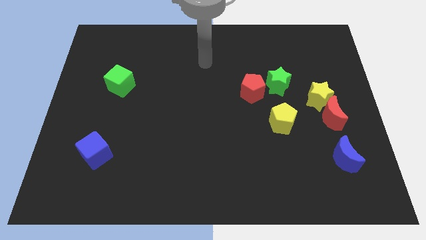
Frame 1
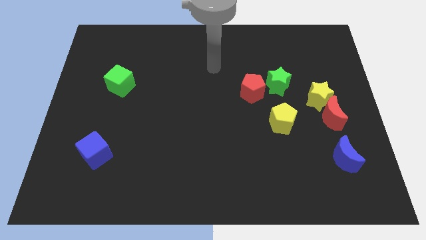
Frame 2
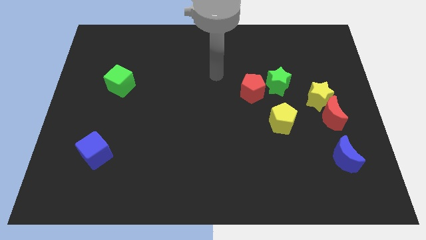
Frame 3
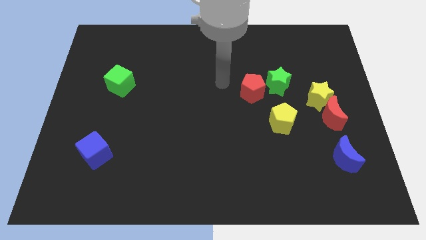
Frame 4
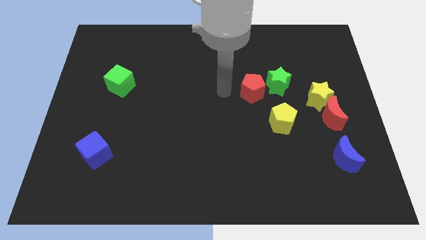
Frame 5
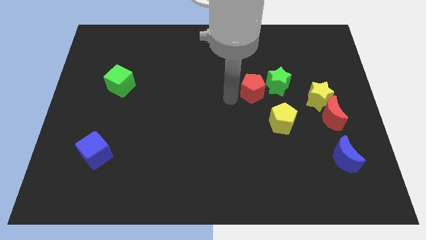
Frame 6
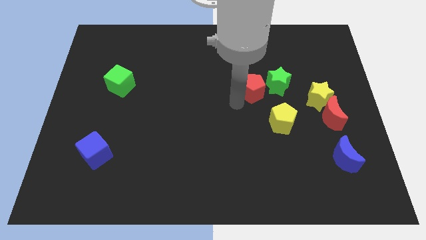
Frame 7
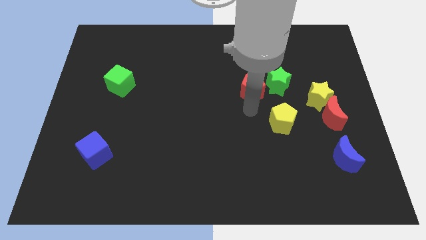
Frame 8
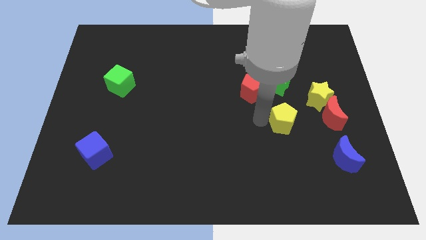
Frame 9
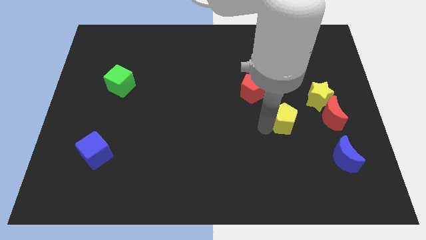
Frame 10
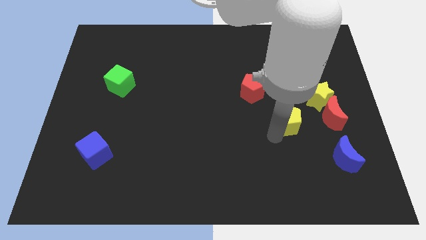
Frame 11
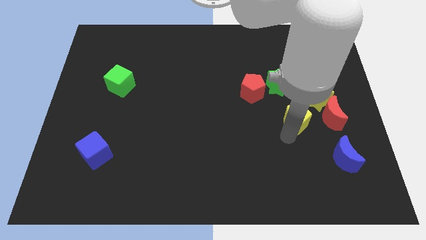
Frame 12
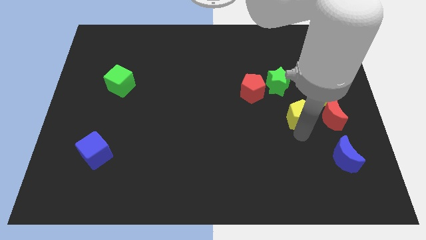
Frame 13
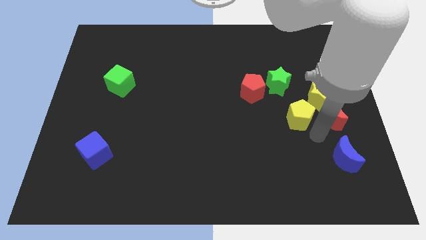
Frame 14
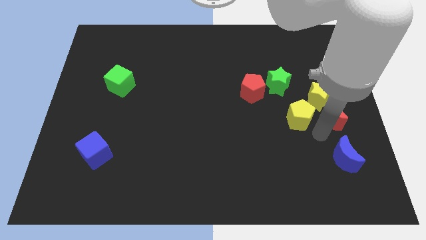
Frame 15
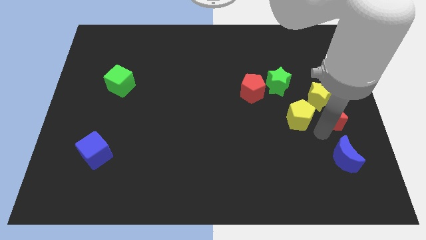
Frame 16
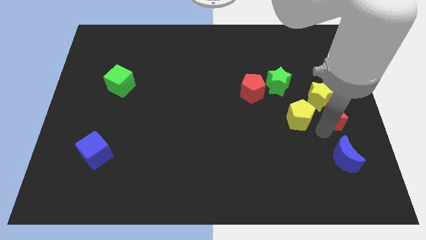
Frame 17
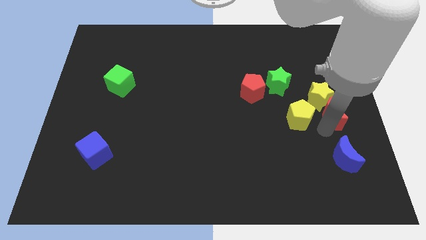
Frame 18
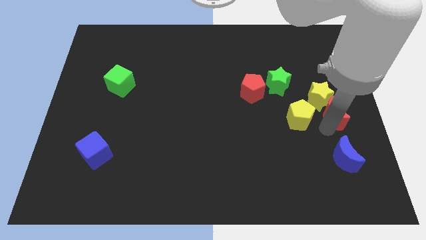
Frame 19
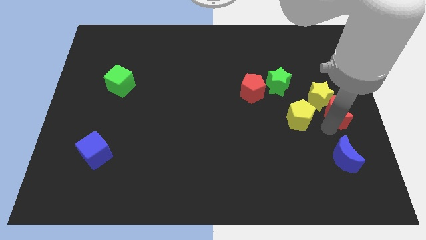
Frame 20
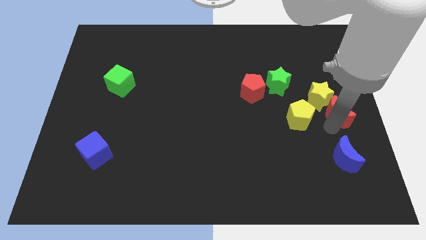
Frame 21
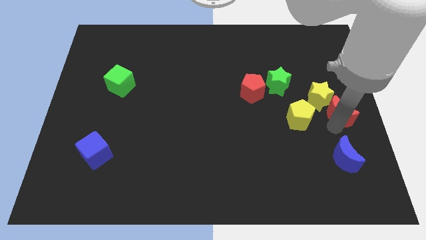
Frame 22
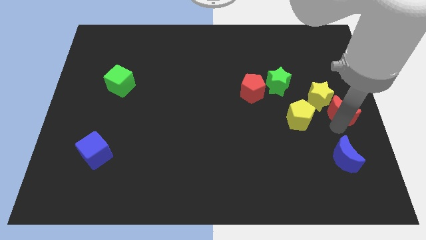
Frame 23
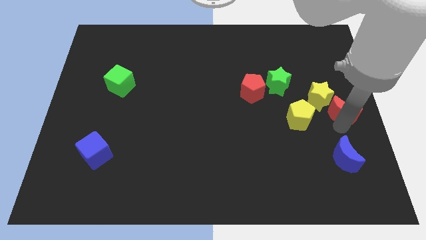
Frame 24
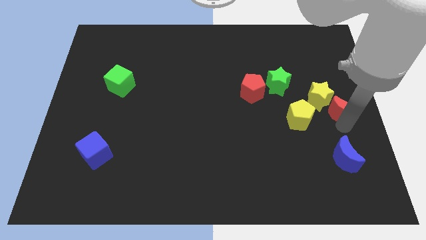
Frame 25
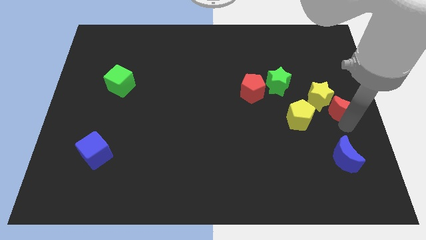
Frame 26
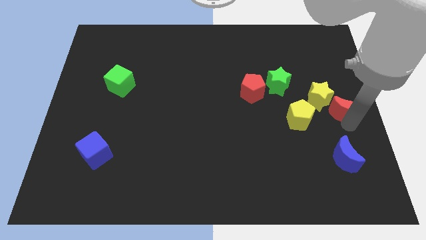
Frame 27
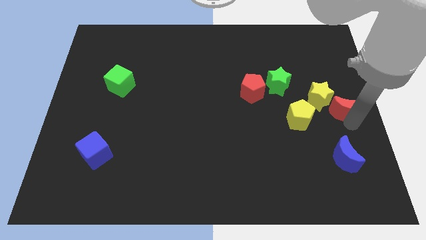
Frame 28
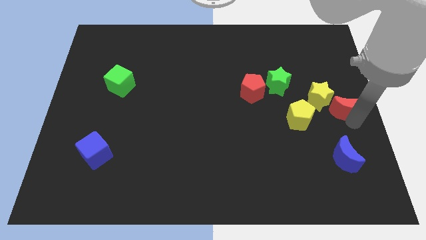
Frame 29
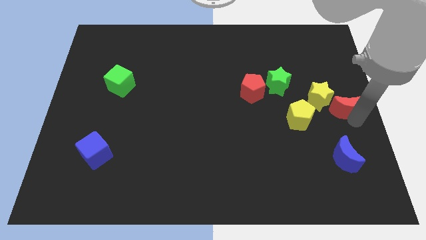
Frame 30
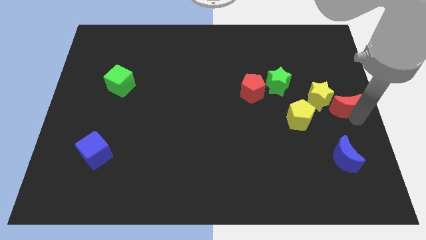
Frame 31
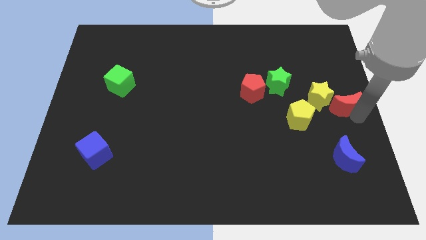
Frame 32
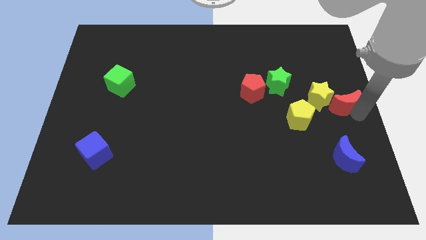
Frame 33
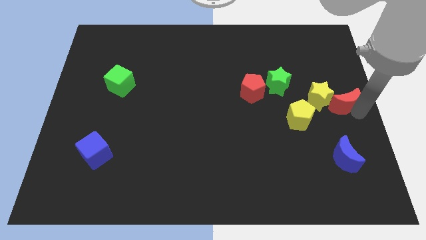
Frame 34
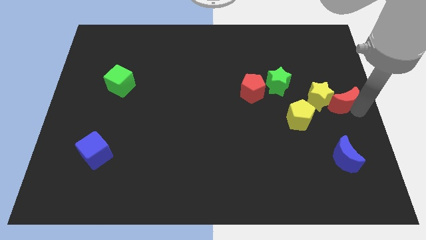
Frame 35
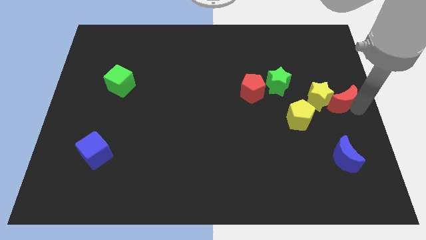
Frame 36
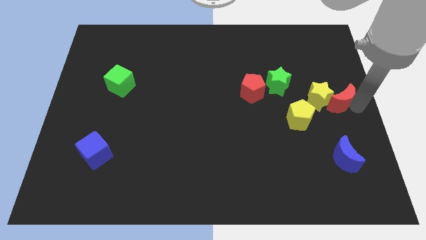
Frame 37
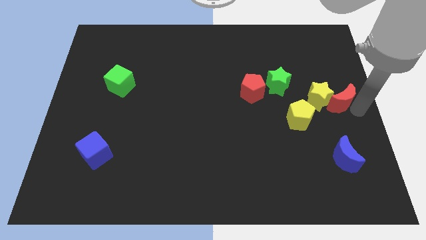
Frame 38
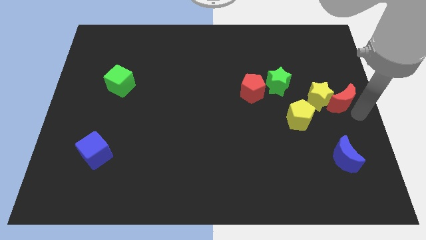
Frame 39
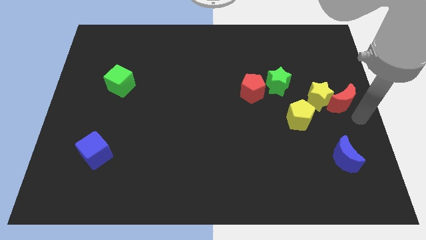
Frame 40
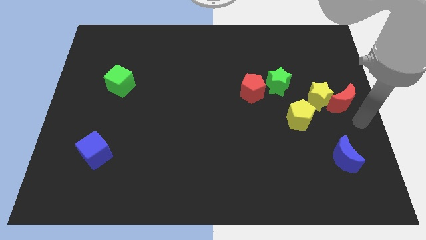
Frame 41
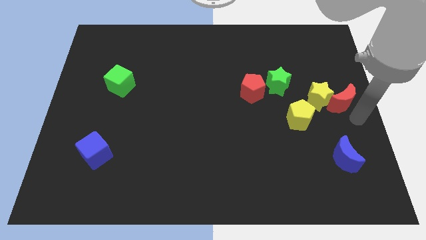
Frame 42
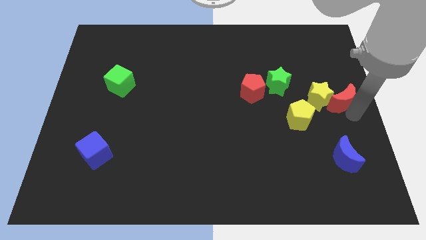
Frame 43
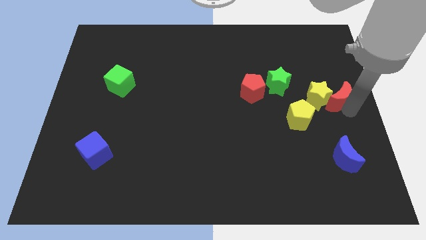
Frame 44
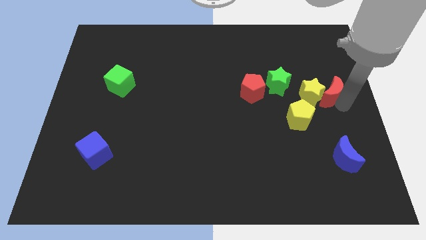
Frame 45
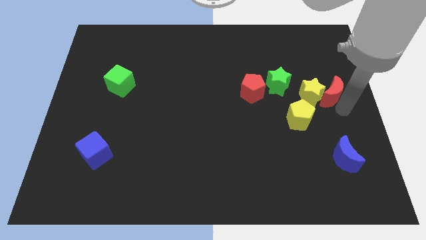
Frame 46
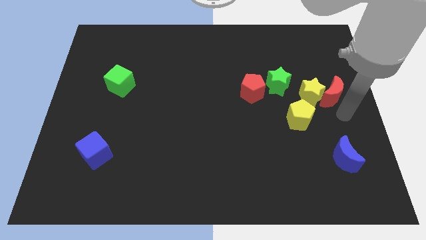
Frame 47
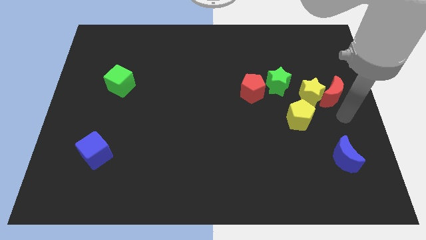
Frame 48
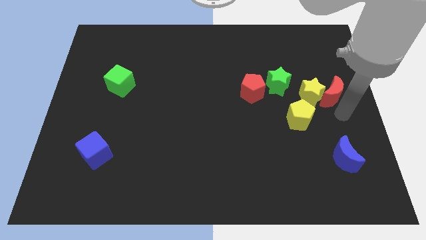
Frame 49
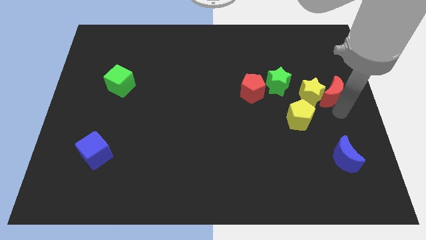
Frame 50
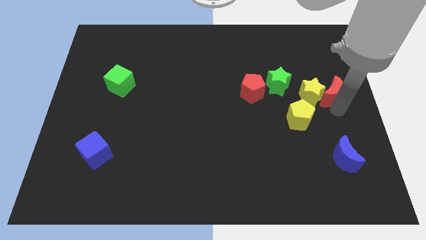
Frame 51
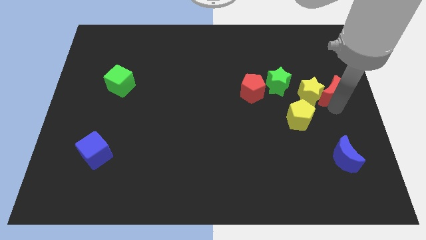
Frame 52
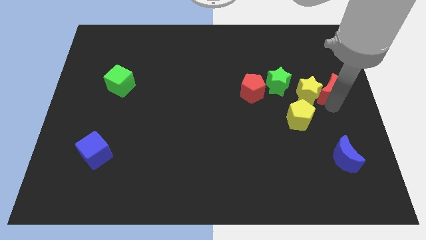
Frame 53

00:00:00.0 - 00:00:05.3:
slightly slide the red moon up

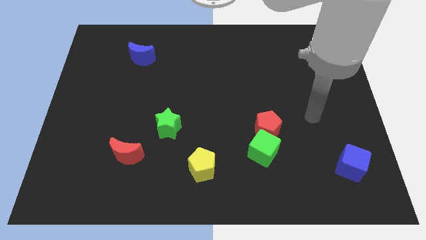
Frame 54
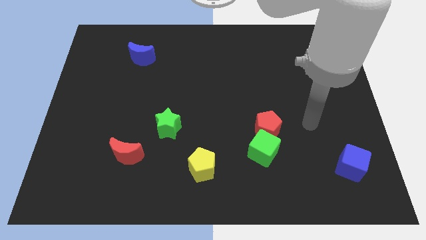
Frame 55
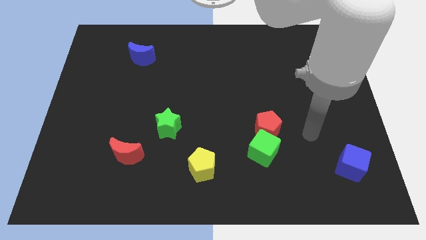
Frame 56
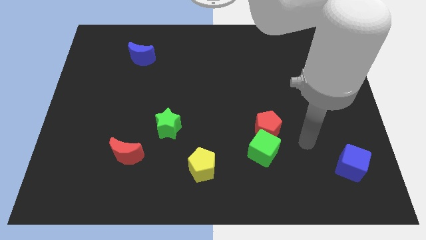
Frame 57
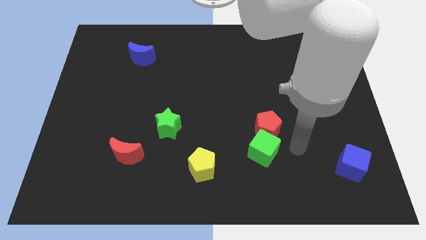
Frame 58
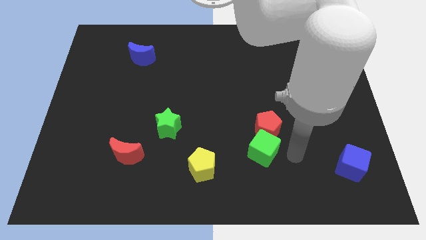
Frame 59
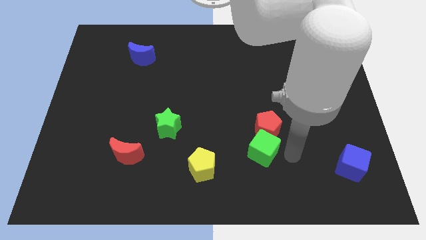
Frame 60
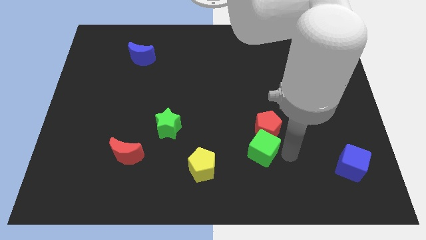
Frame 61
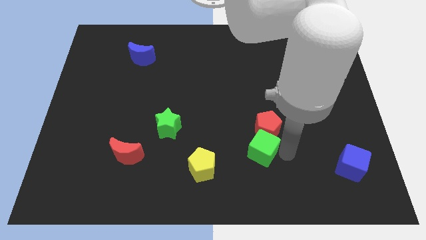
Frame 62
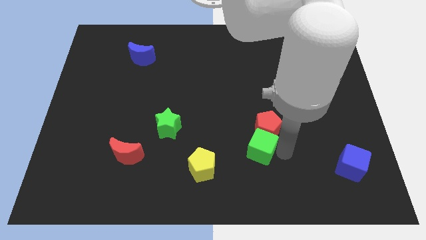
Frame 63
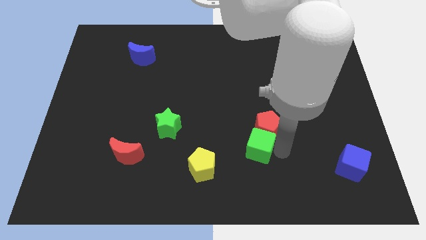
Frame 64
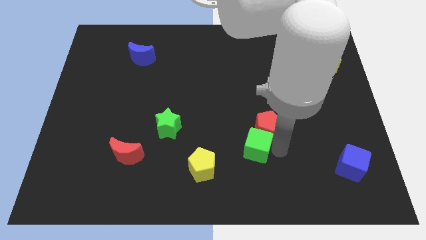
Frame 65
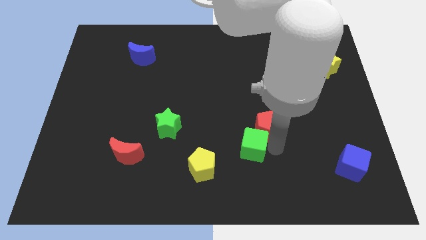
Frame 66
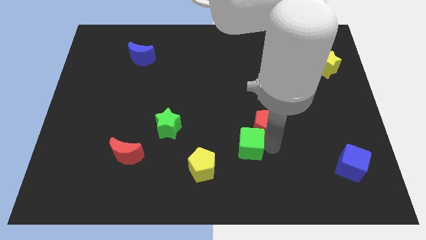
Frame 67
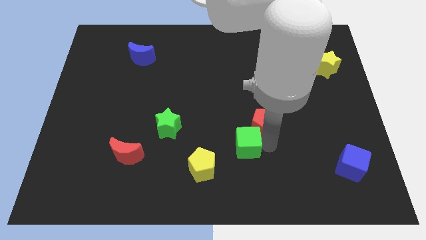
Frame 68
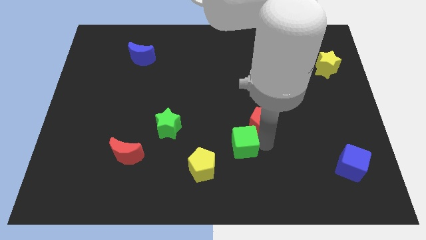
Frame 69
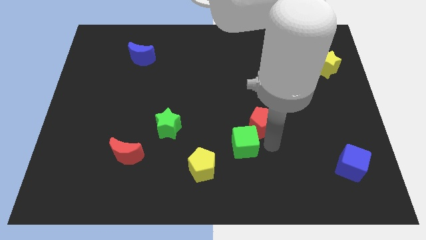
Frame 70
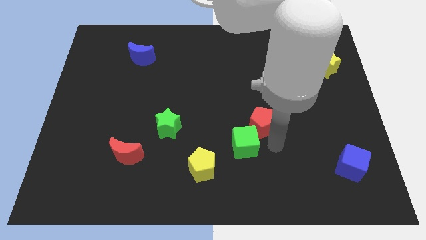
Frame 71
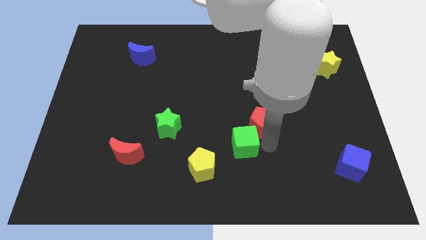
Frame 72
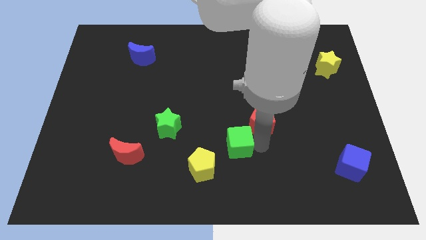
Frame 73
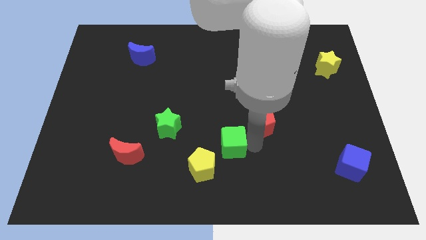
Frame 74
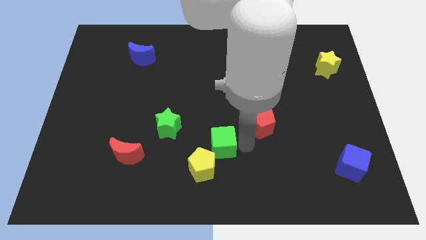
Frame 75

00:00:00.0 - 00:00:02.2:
push the green cube to the left a bit

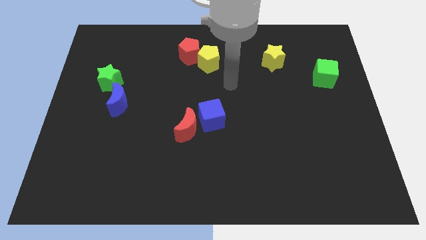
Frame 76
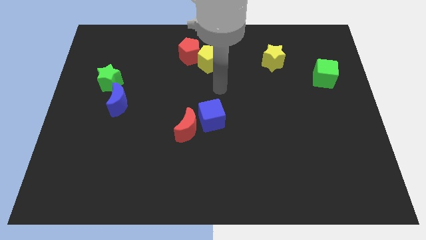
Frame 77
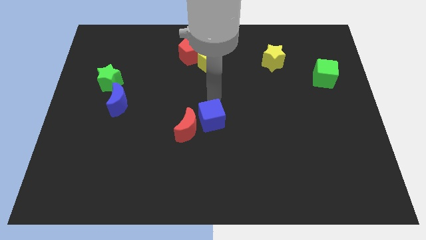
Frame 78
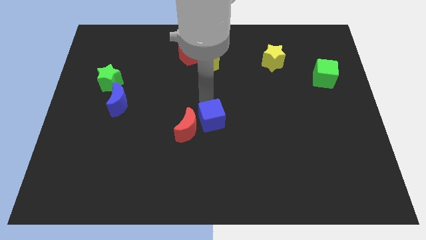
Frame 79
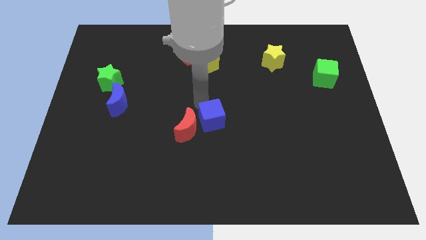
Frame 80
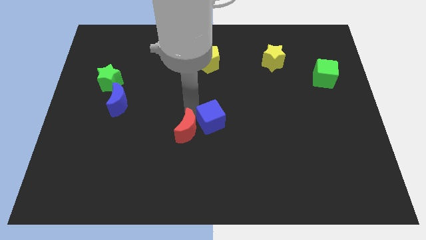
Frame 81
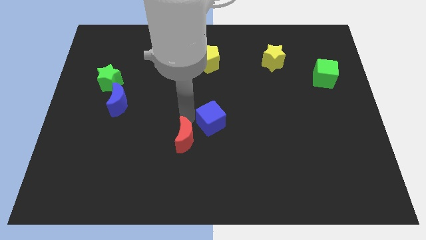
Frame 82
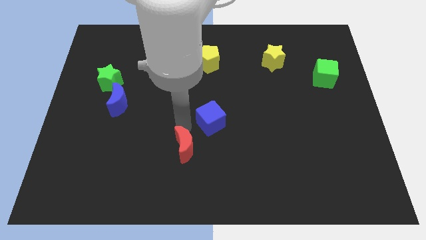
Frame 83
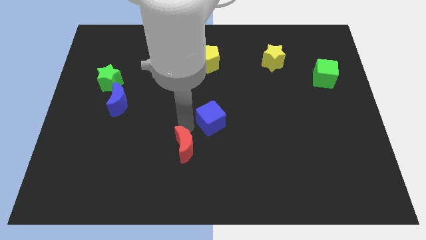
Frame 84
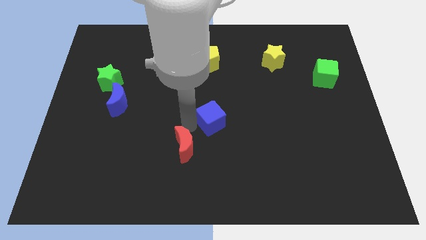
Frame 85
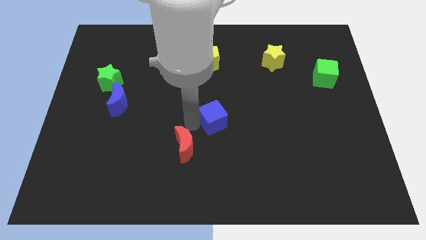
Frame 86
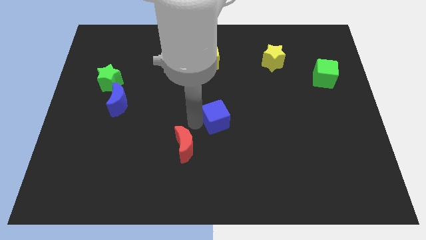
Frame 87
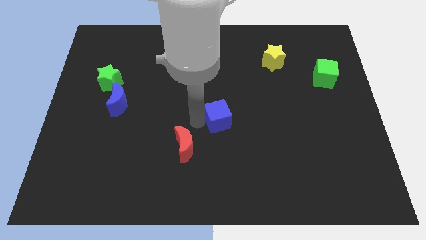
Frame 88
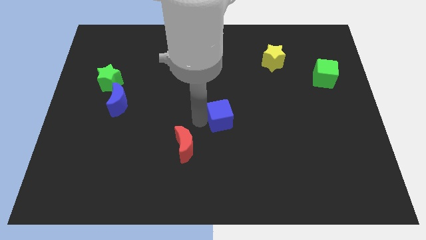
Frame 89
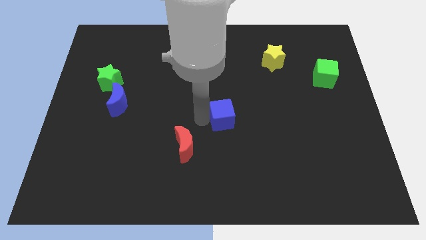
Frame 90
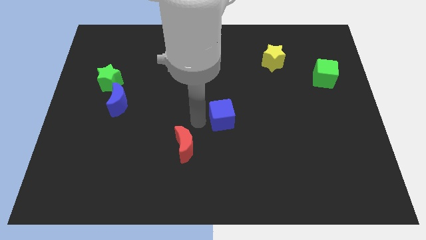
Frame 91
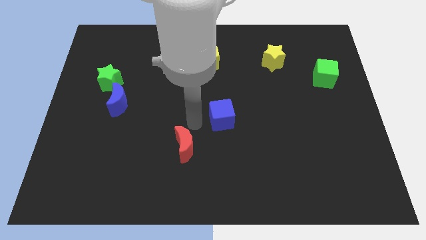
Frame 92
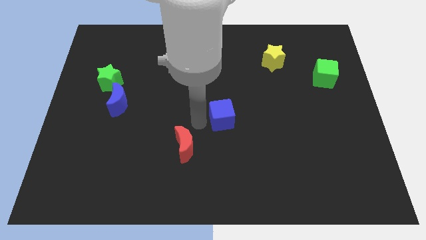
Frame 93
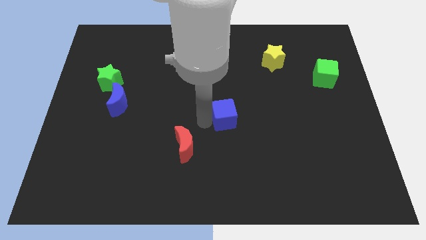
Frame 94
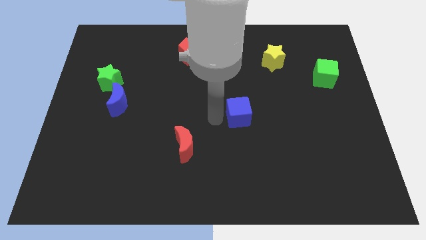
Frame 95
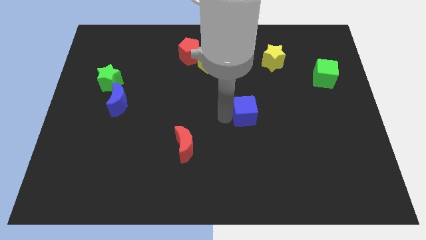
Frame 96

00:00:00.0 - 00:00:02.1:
slide the blue cube to the right a bit
